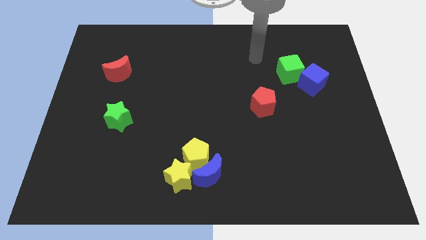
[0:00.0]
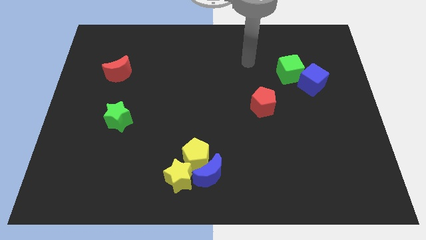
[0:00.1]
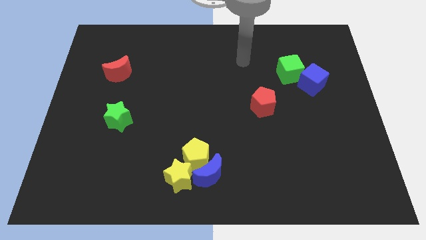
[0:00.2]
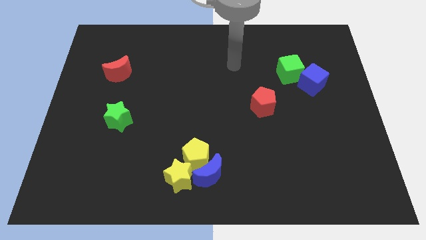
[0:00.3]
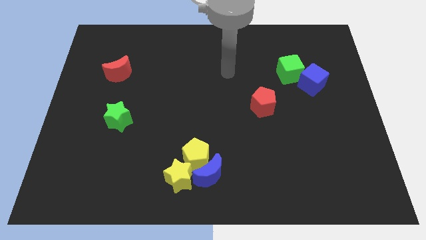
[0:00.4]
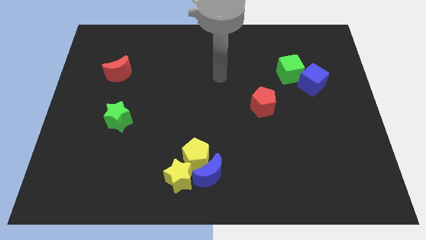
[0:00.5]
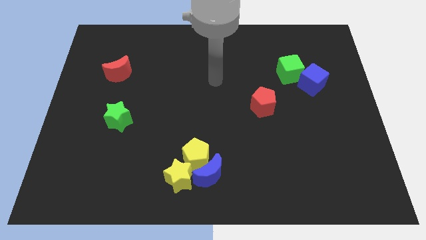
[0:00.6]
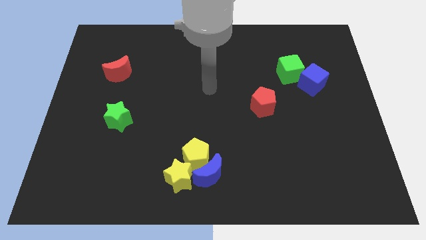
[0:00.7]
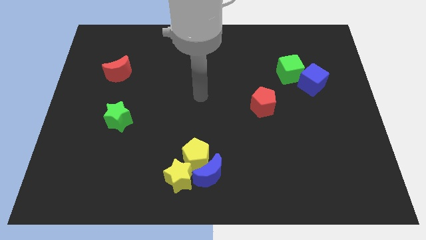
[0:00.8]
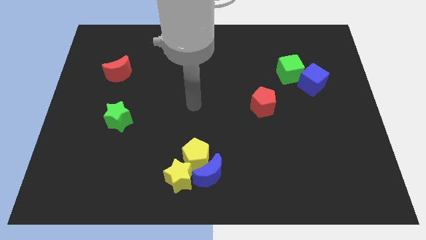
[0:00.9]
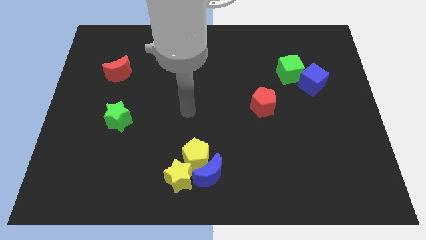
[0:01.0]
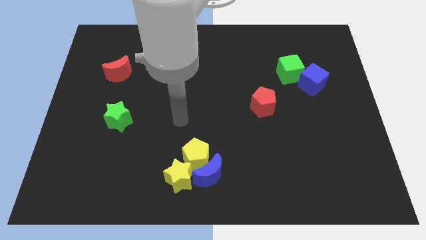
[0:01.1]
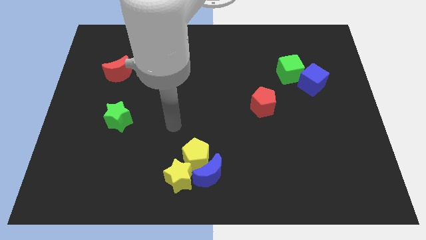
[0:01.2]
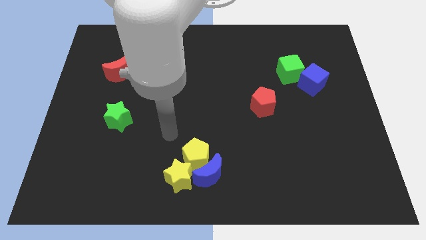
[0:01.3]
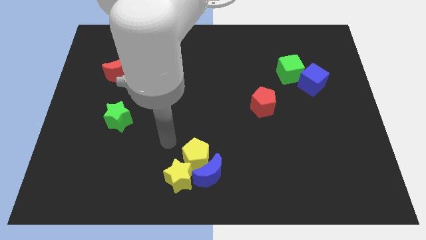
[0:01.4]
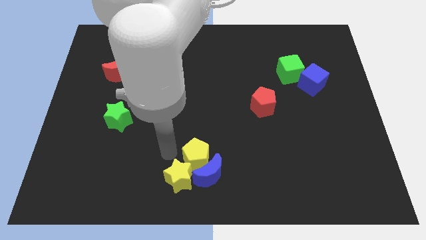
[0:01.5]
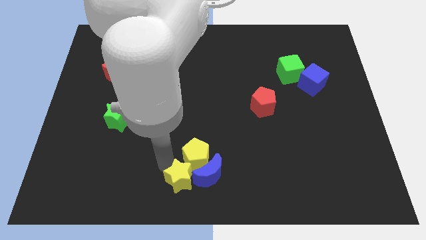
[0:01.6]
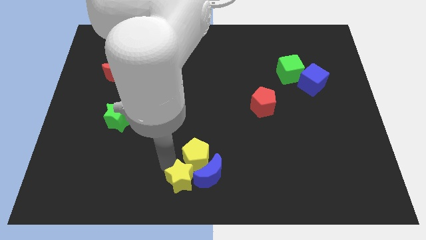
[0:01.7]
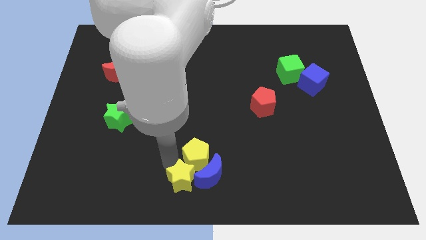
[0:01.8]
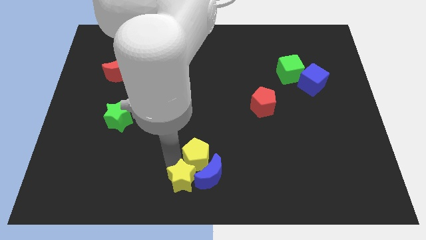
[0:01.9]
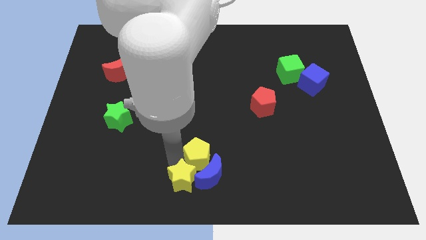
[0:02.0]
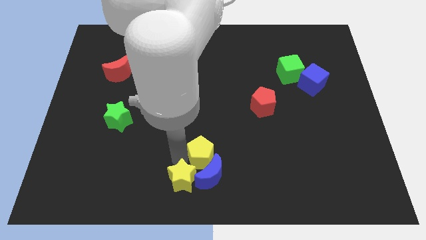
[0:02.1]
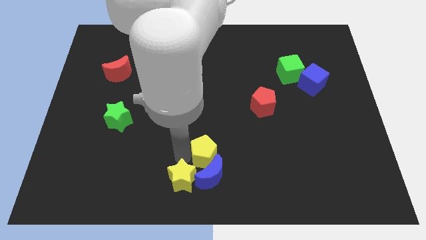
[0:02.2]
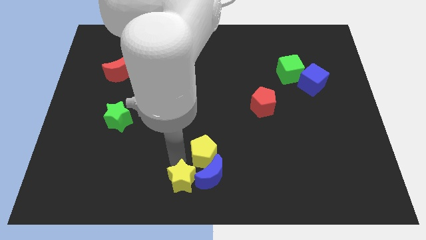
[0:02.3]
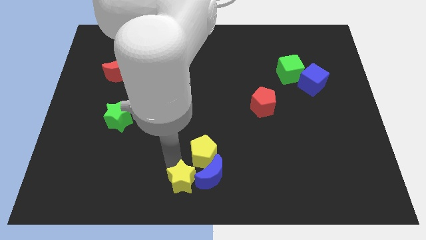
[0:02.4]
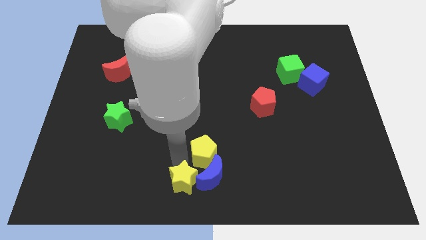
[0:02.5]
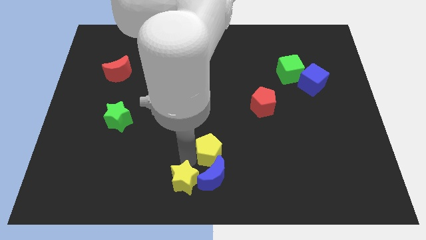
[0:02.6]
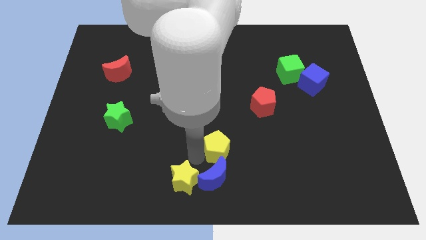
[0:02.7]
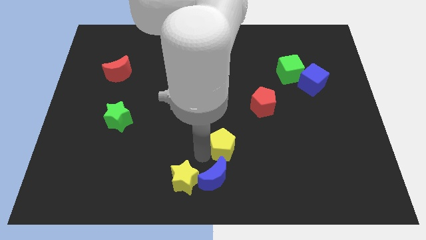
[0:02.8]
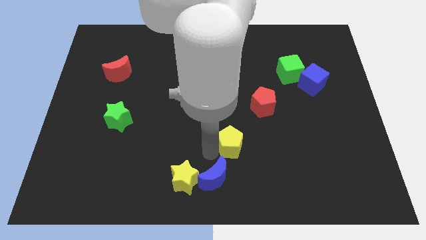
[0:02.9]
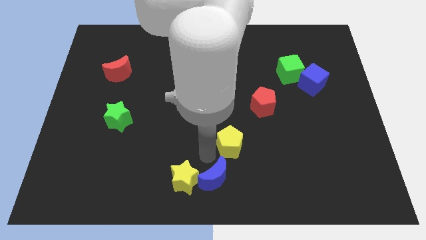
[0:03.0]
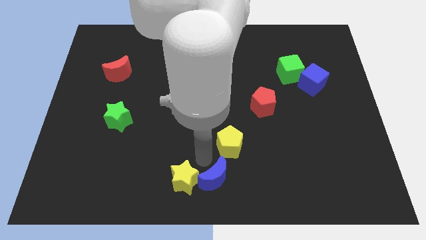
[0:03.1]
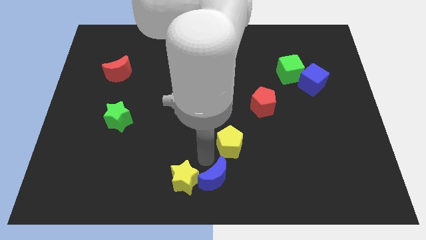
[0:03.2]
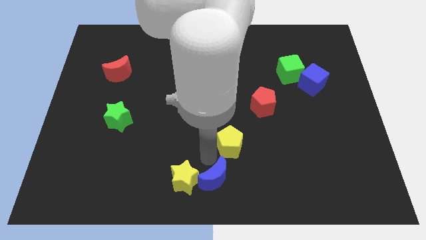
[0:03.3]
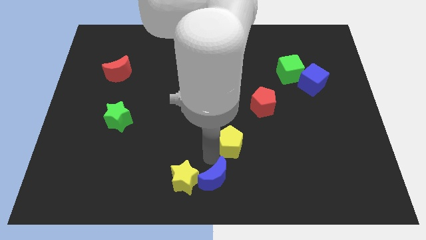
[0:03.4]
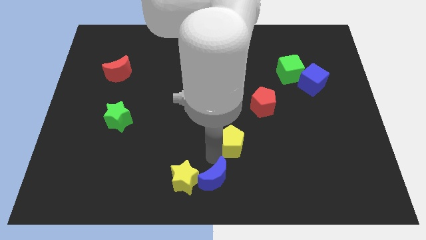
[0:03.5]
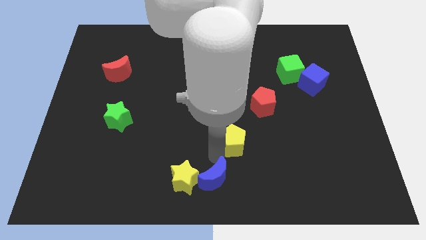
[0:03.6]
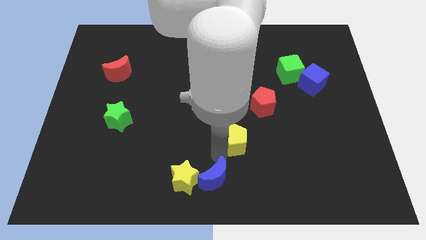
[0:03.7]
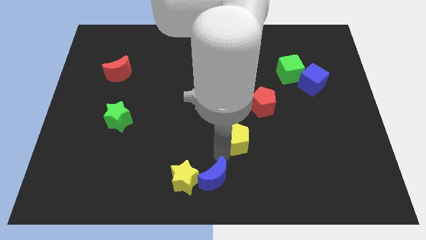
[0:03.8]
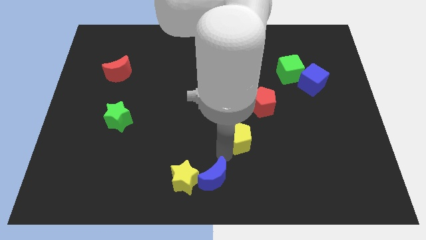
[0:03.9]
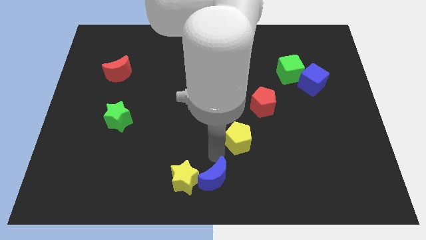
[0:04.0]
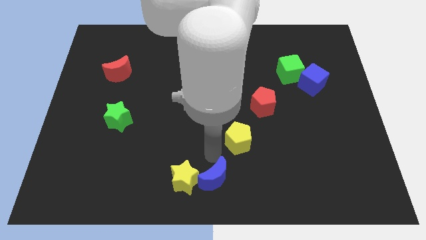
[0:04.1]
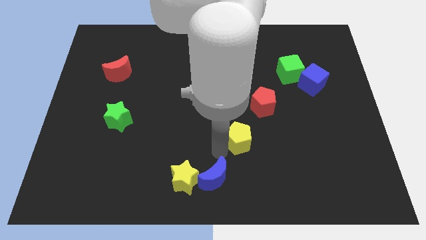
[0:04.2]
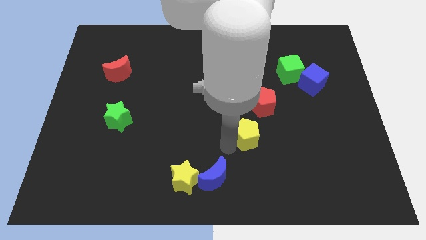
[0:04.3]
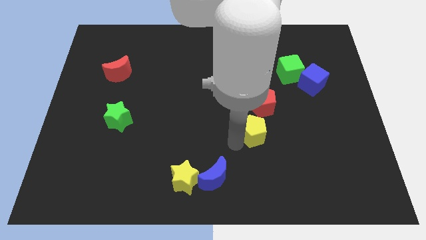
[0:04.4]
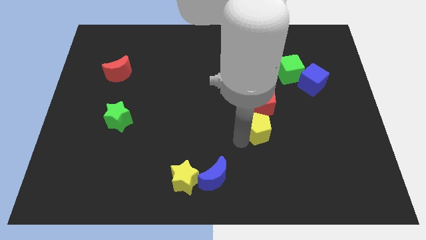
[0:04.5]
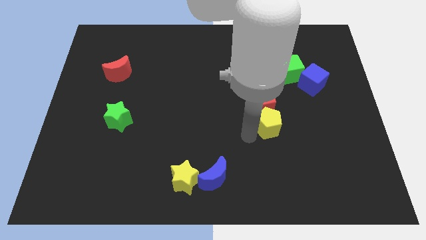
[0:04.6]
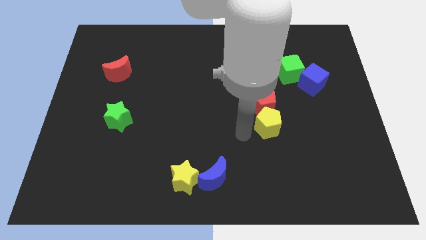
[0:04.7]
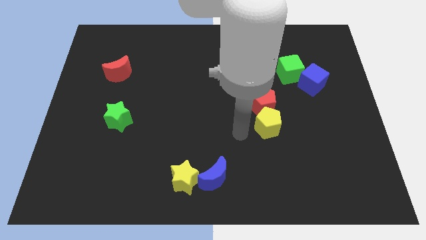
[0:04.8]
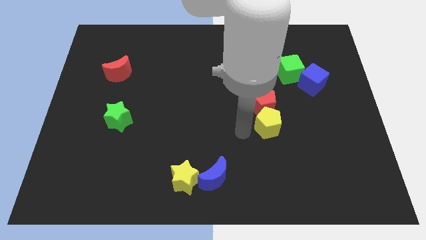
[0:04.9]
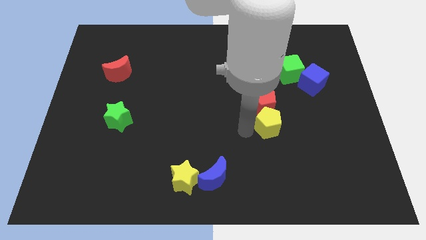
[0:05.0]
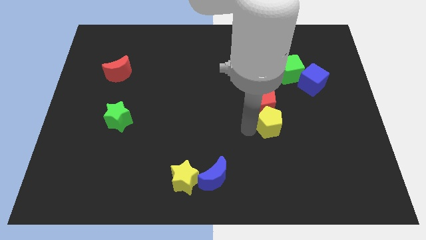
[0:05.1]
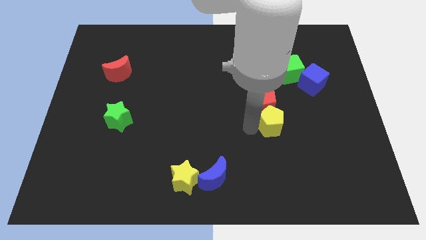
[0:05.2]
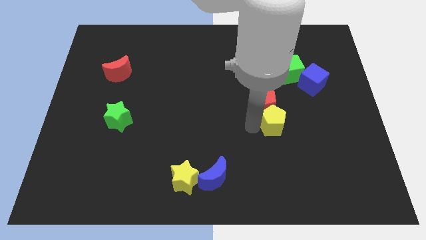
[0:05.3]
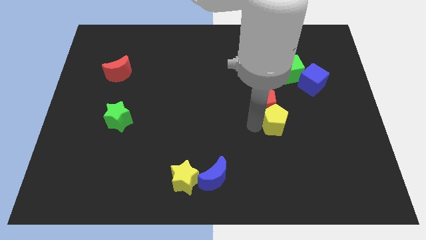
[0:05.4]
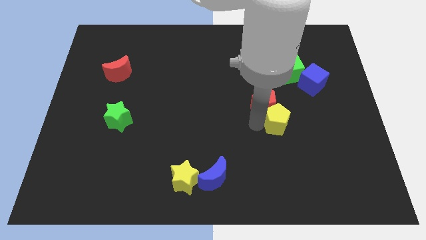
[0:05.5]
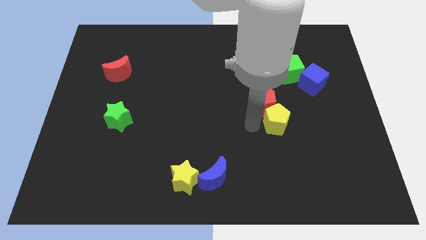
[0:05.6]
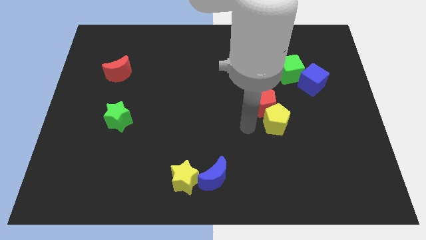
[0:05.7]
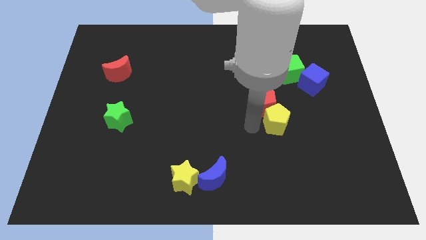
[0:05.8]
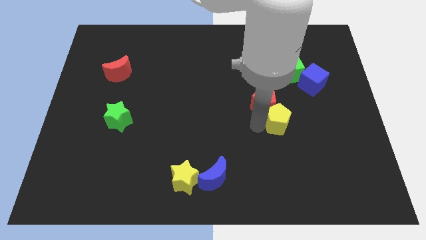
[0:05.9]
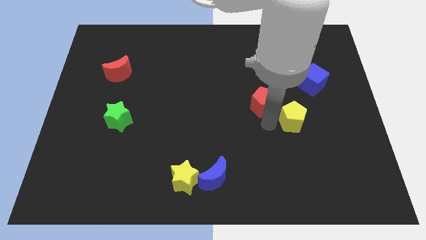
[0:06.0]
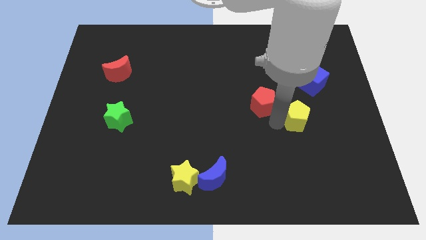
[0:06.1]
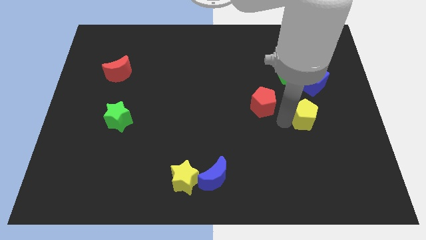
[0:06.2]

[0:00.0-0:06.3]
put the yellow pentagon below the blue cube

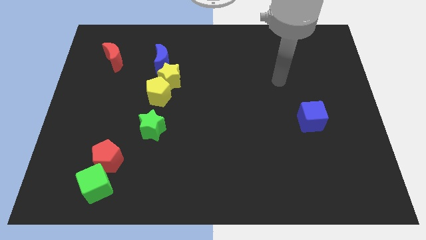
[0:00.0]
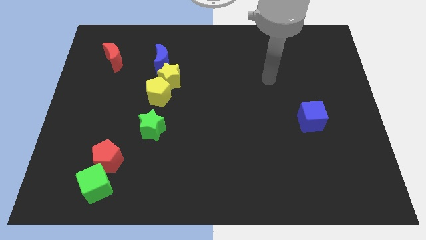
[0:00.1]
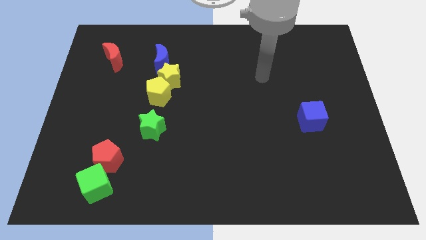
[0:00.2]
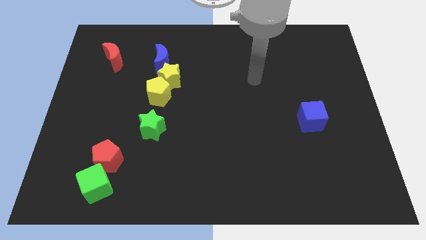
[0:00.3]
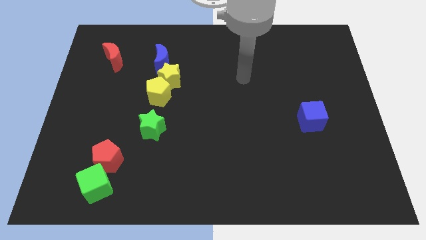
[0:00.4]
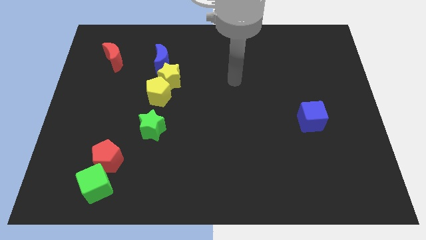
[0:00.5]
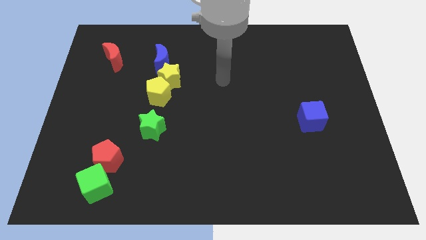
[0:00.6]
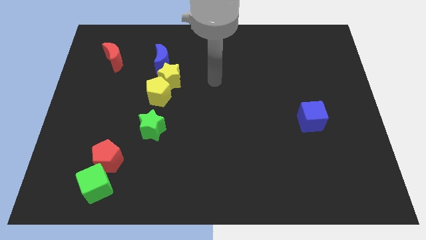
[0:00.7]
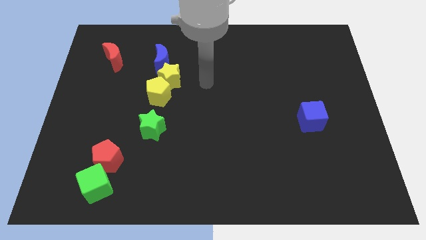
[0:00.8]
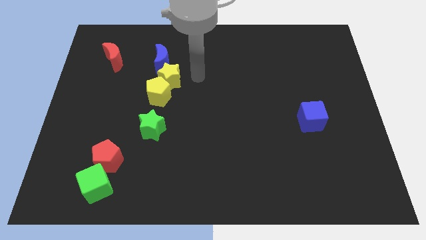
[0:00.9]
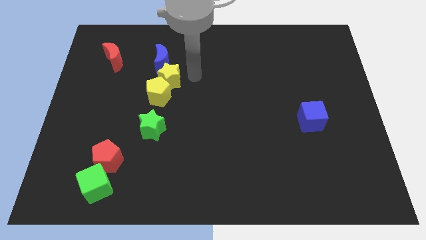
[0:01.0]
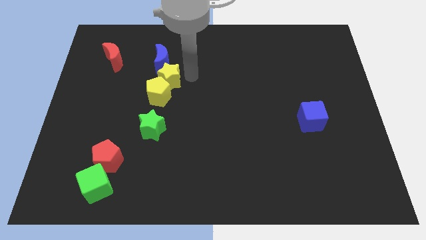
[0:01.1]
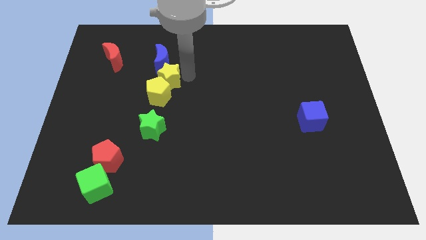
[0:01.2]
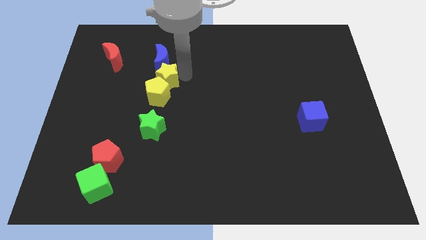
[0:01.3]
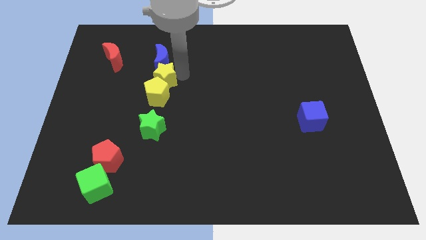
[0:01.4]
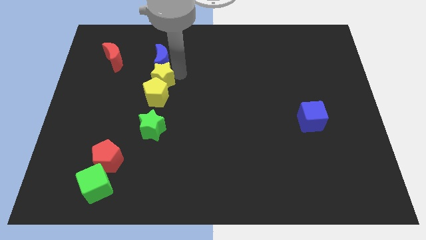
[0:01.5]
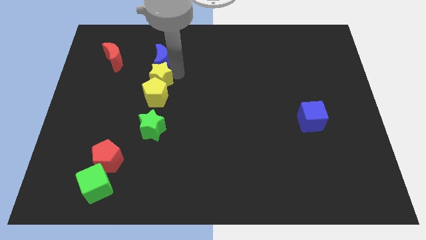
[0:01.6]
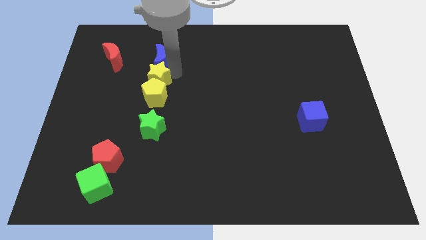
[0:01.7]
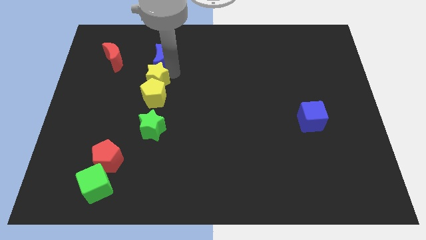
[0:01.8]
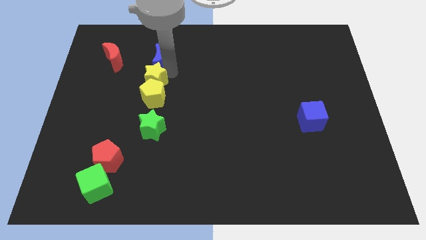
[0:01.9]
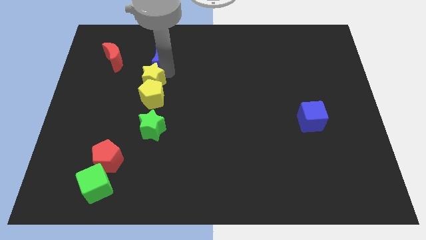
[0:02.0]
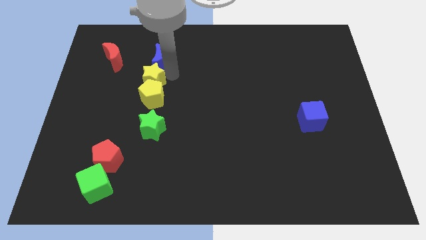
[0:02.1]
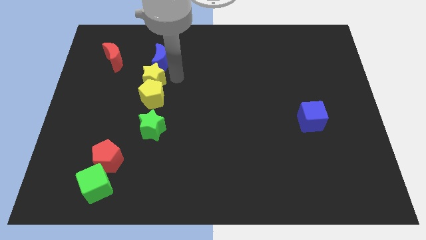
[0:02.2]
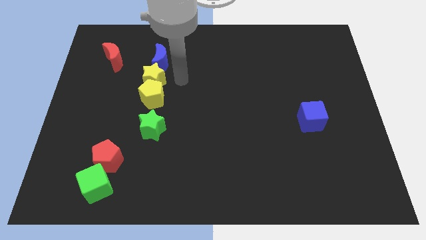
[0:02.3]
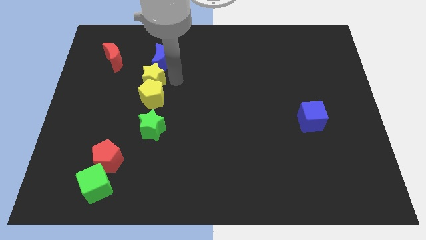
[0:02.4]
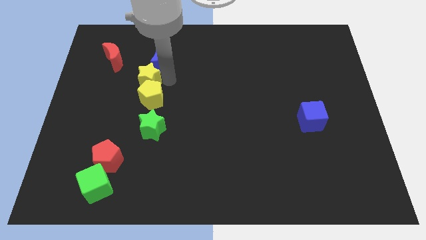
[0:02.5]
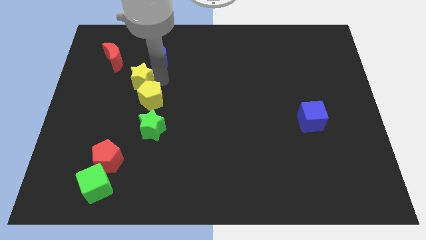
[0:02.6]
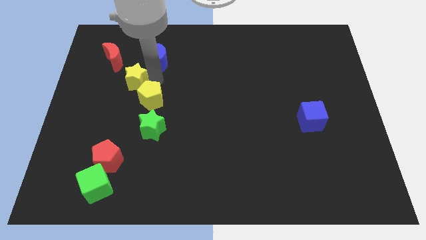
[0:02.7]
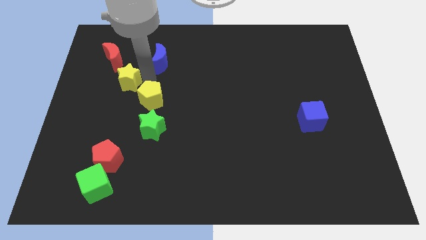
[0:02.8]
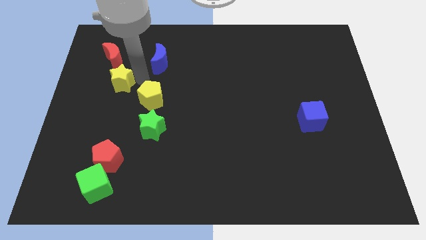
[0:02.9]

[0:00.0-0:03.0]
put the yellow star to the bottom side of the red moon
